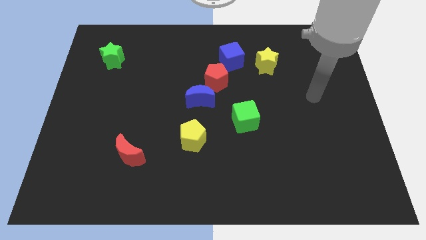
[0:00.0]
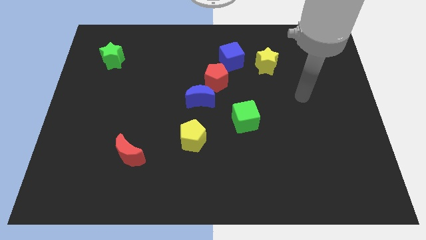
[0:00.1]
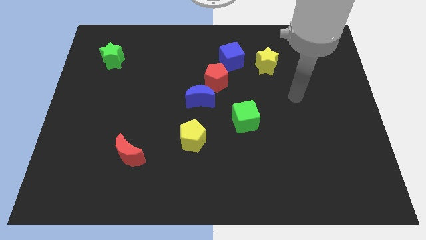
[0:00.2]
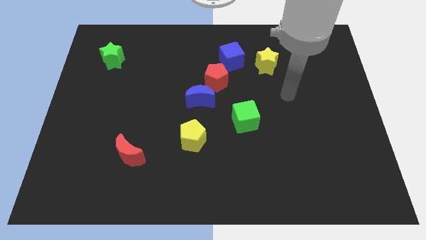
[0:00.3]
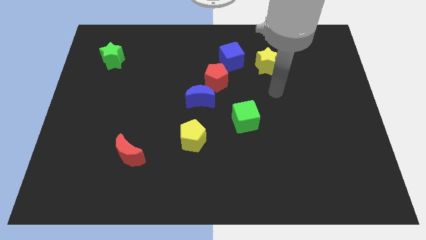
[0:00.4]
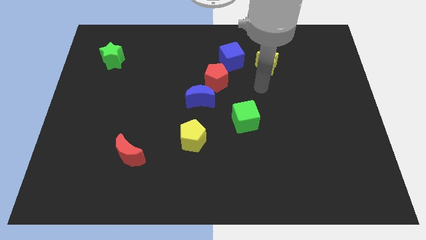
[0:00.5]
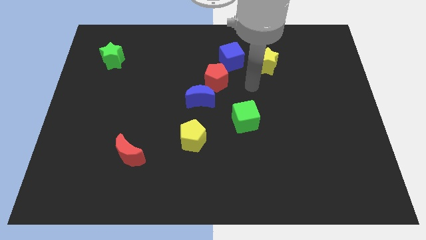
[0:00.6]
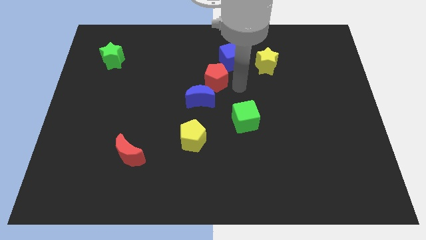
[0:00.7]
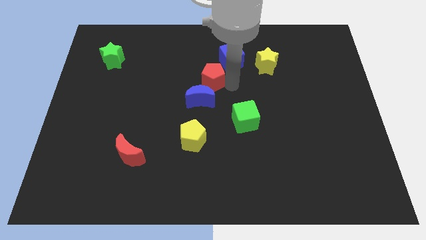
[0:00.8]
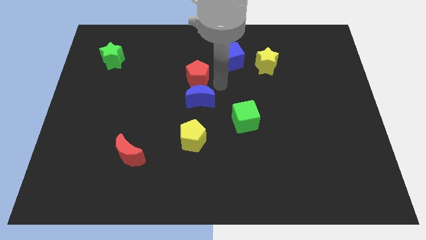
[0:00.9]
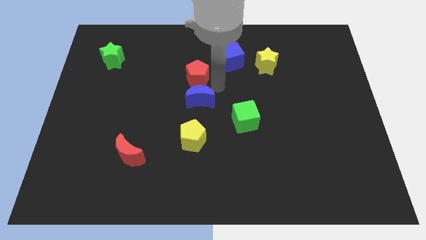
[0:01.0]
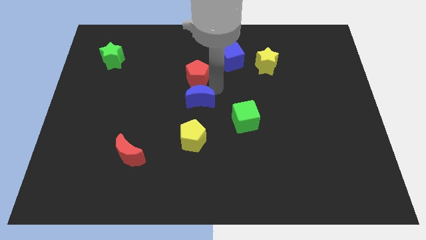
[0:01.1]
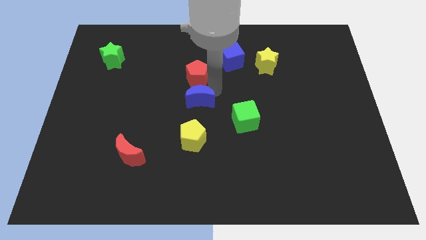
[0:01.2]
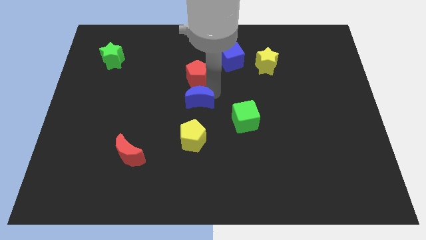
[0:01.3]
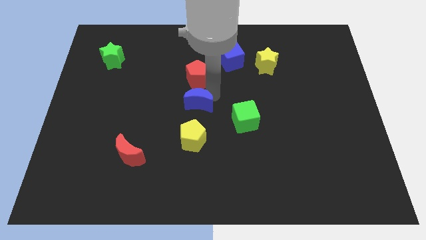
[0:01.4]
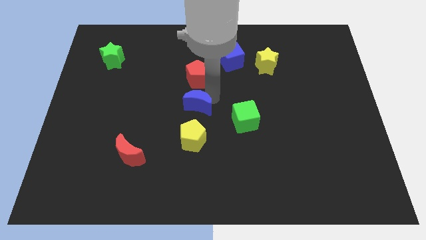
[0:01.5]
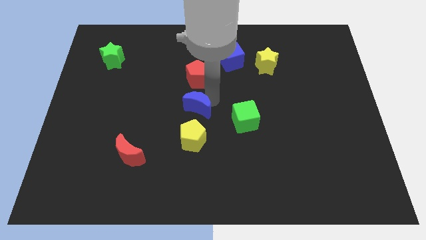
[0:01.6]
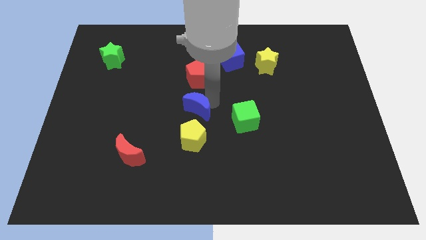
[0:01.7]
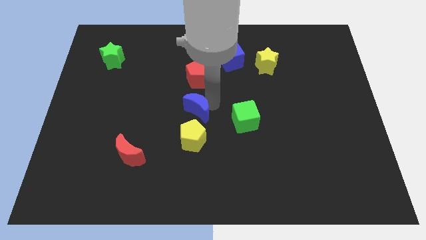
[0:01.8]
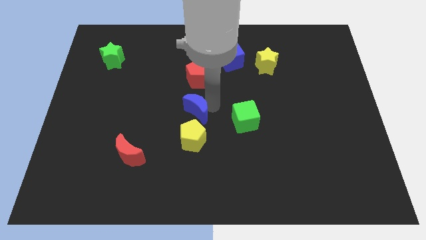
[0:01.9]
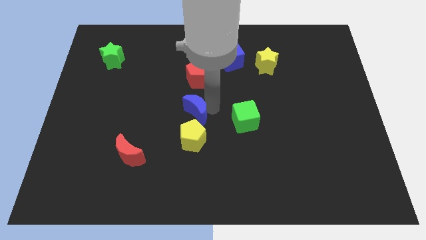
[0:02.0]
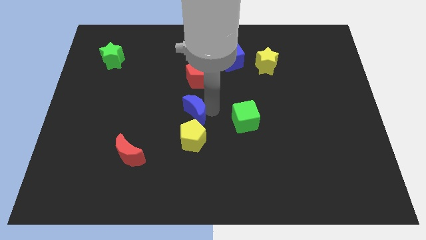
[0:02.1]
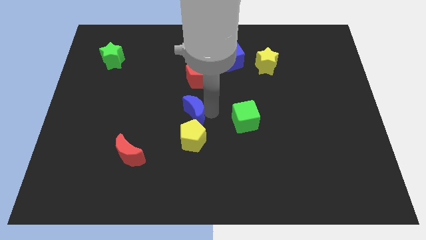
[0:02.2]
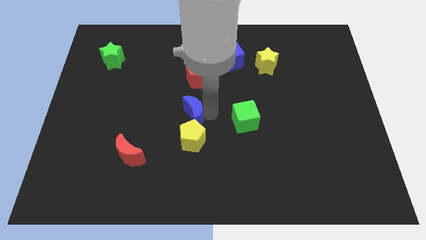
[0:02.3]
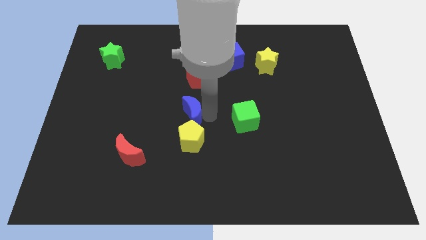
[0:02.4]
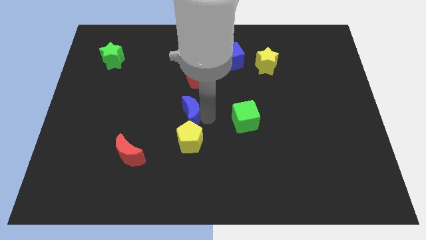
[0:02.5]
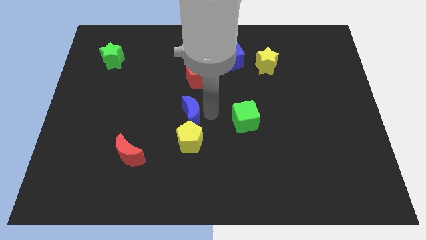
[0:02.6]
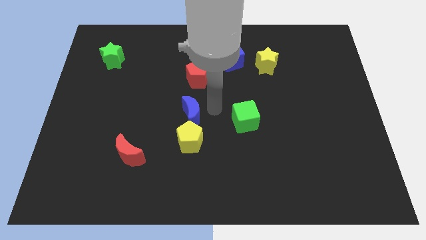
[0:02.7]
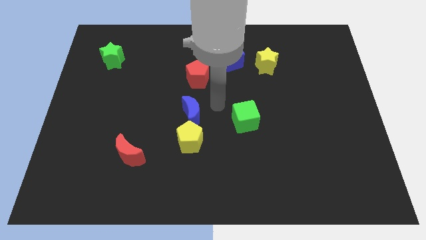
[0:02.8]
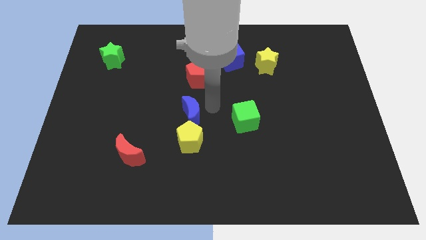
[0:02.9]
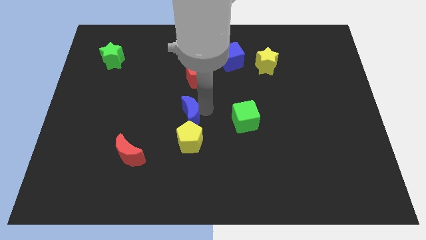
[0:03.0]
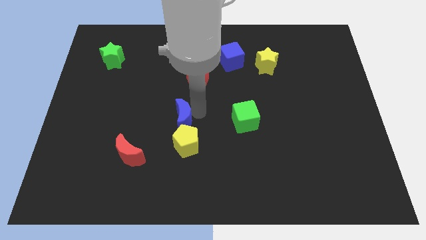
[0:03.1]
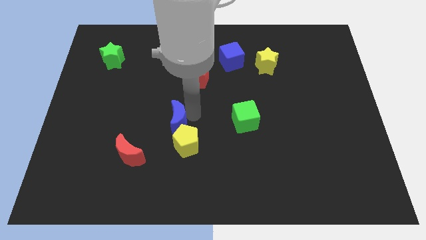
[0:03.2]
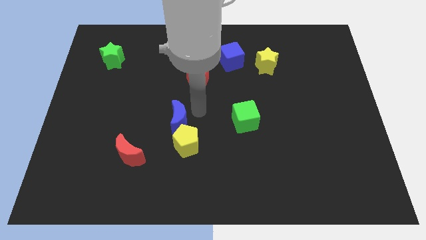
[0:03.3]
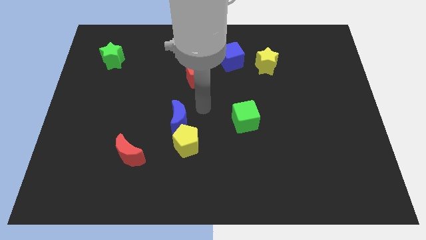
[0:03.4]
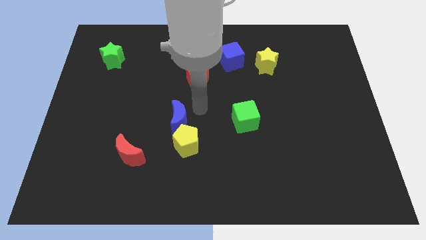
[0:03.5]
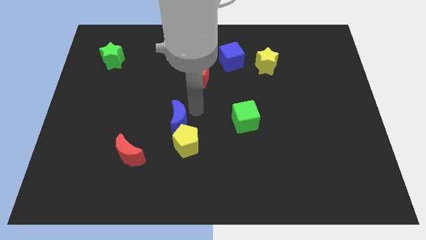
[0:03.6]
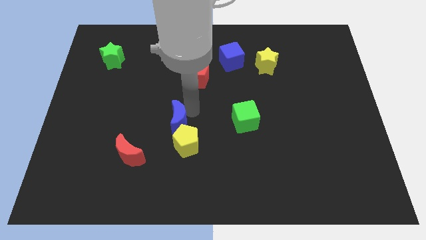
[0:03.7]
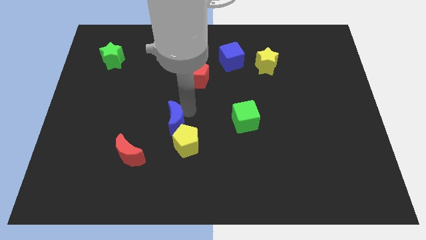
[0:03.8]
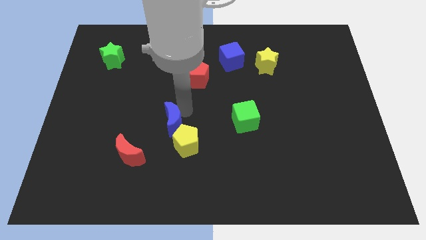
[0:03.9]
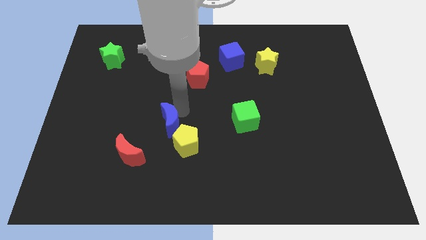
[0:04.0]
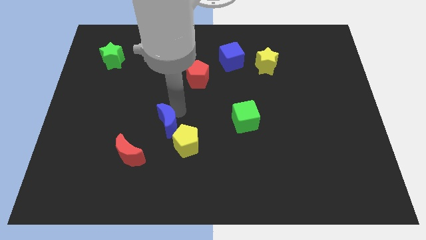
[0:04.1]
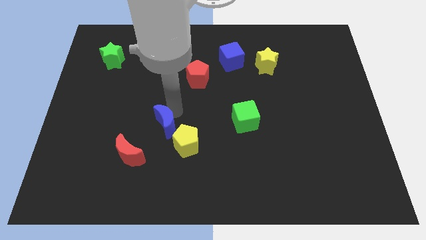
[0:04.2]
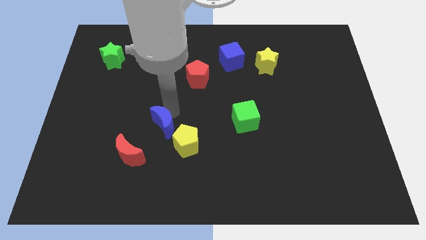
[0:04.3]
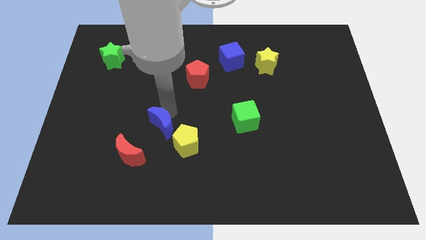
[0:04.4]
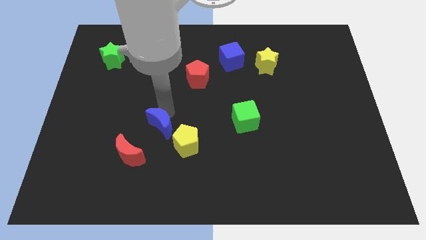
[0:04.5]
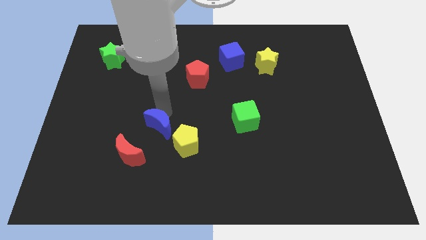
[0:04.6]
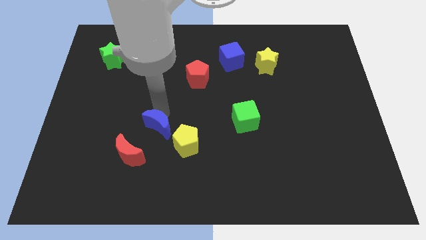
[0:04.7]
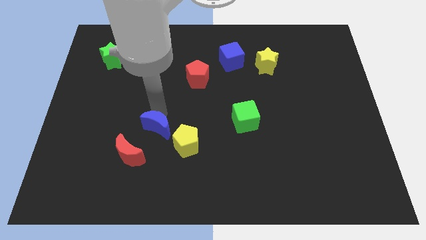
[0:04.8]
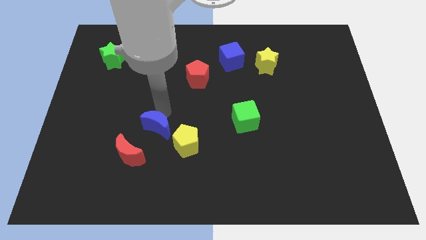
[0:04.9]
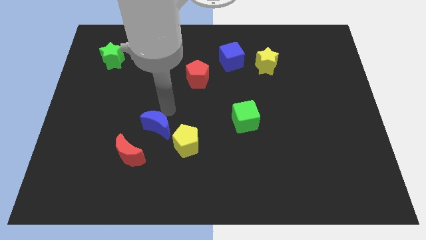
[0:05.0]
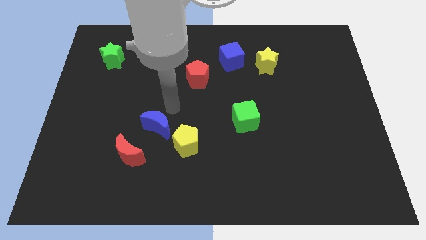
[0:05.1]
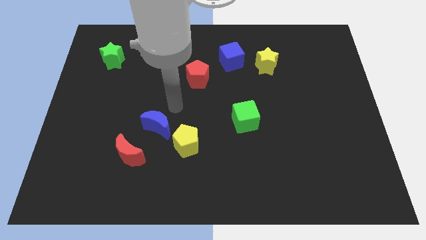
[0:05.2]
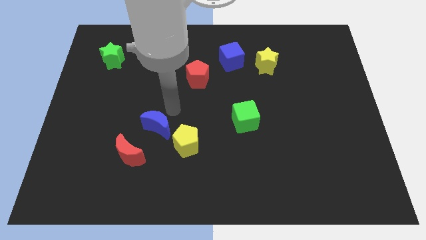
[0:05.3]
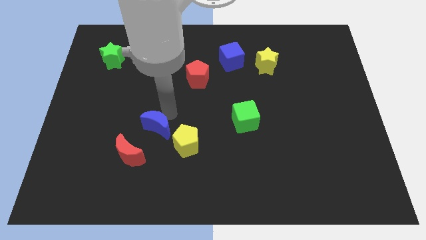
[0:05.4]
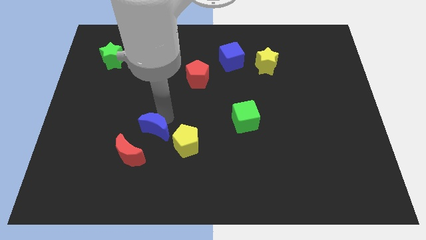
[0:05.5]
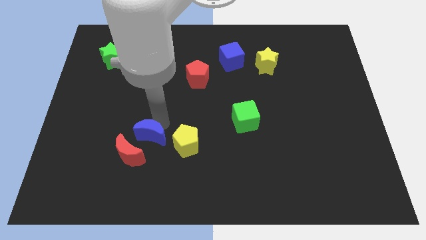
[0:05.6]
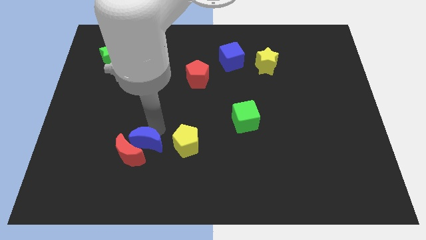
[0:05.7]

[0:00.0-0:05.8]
put the blue moon towards the red moon

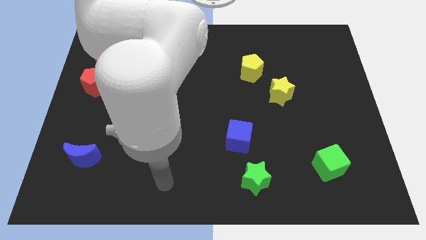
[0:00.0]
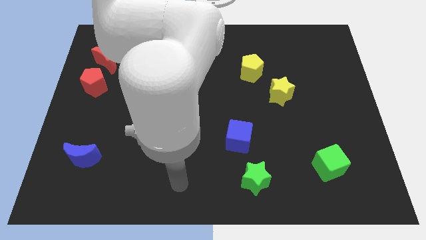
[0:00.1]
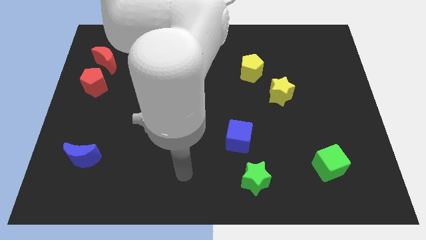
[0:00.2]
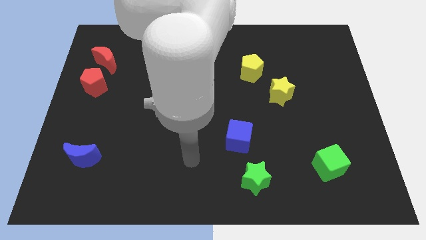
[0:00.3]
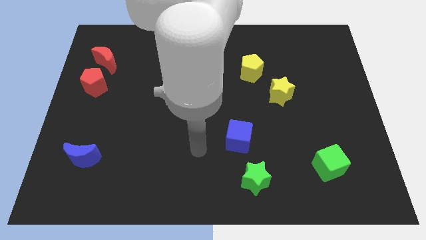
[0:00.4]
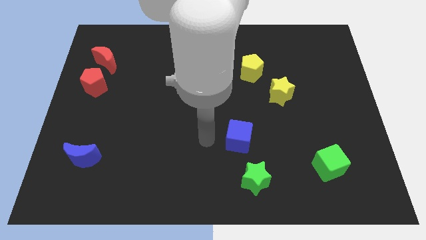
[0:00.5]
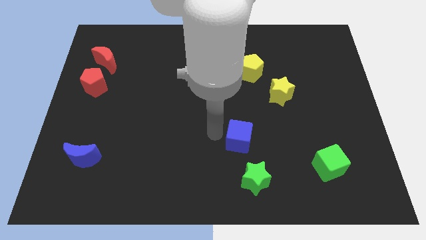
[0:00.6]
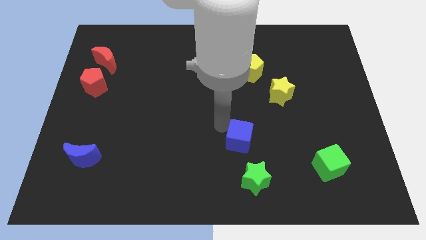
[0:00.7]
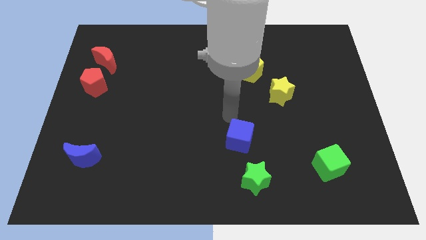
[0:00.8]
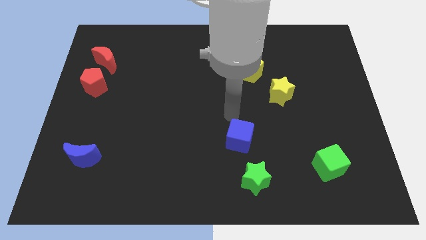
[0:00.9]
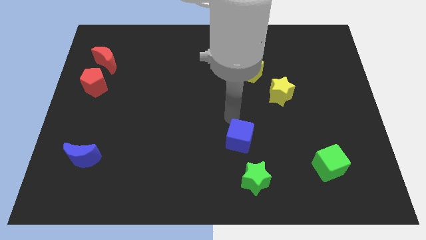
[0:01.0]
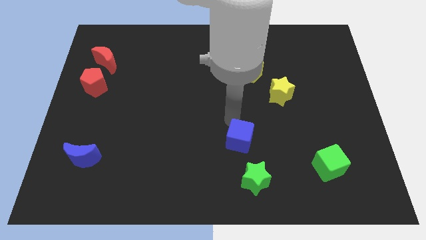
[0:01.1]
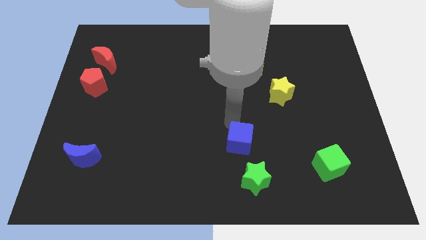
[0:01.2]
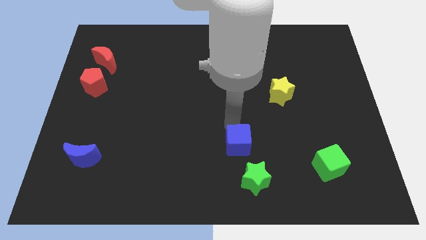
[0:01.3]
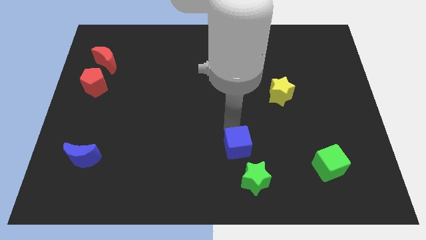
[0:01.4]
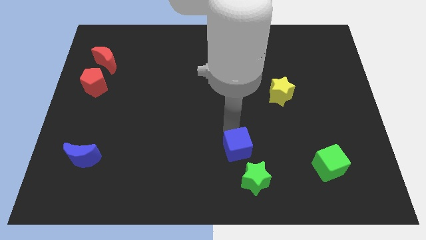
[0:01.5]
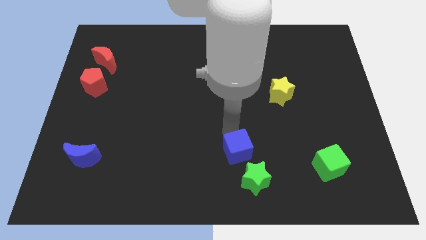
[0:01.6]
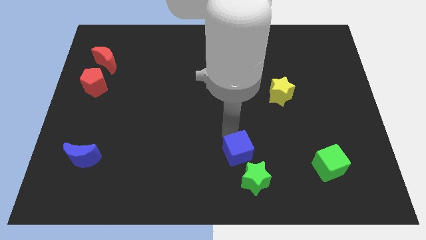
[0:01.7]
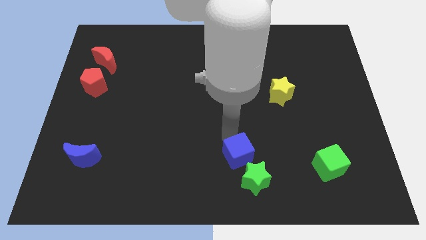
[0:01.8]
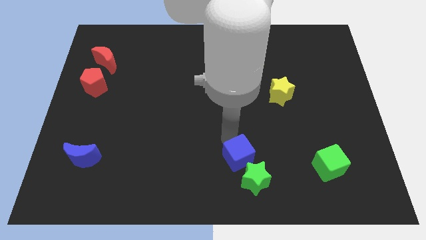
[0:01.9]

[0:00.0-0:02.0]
move the blue cube close to the green star
